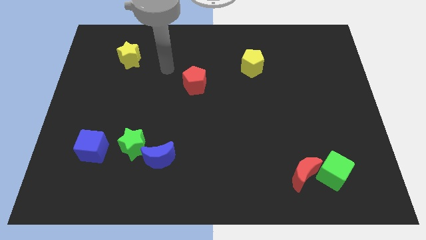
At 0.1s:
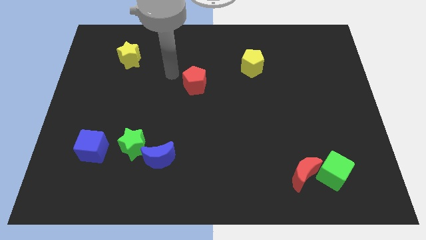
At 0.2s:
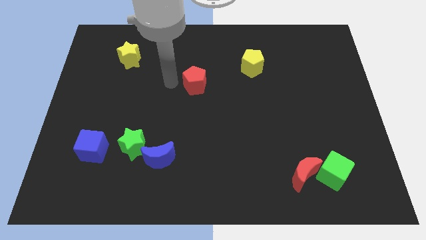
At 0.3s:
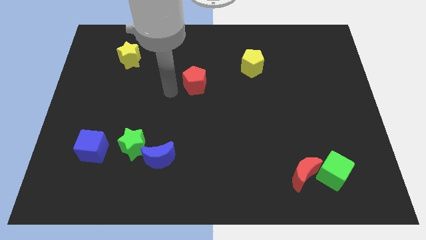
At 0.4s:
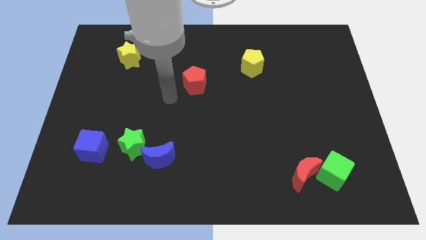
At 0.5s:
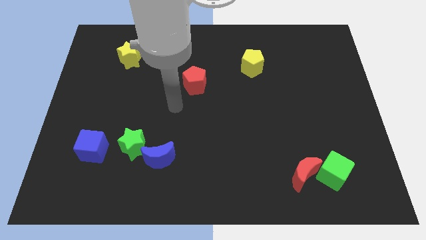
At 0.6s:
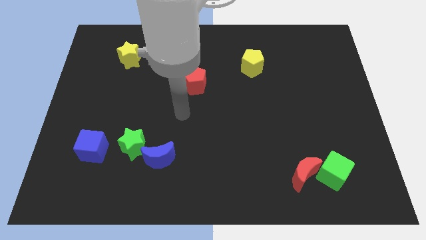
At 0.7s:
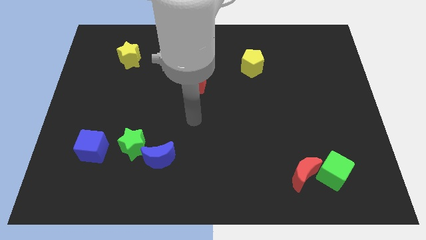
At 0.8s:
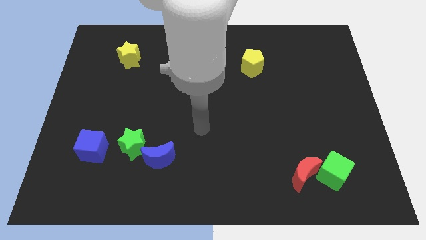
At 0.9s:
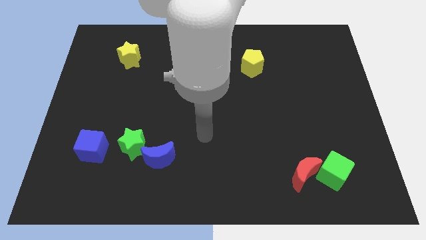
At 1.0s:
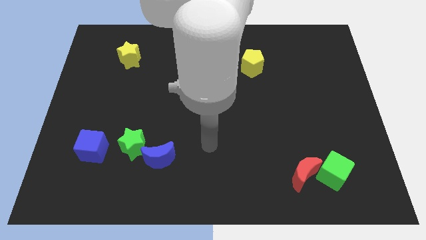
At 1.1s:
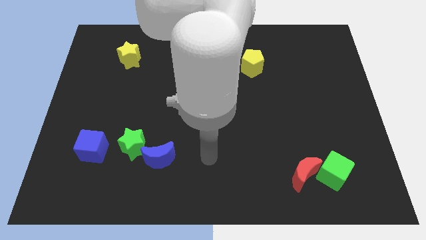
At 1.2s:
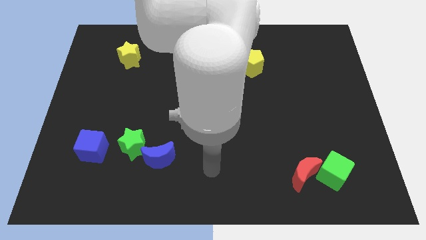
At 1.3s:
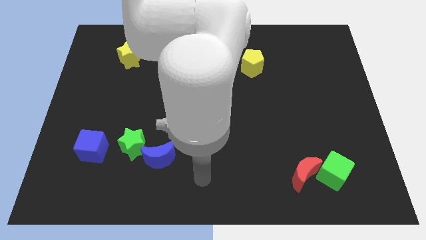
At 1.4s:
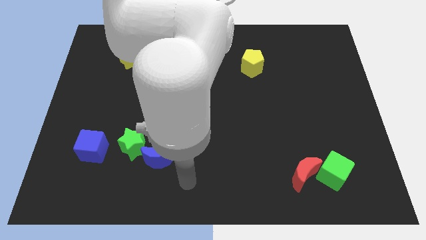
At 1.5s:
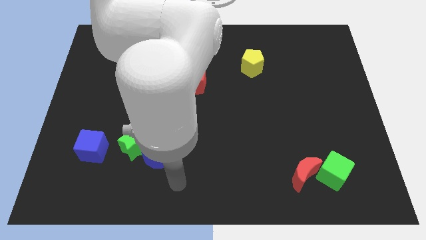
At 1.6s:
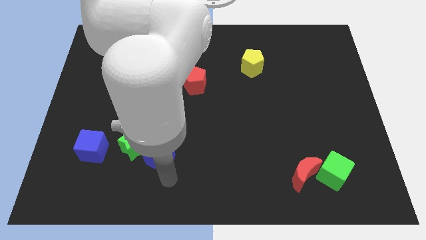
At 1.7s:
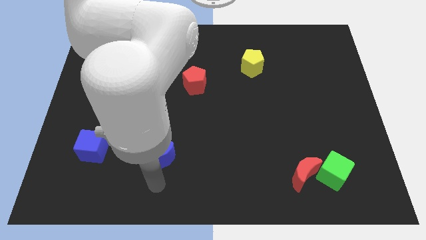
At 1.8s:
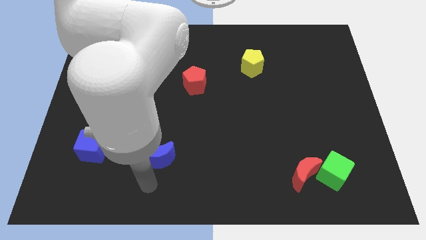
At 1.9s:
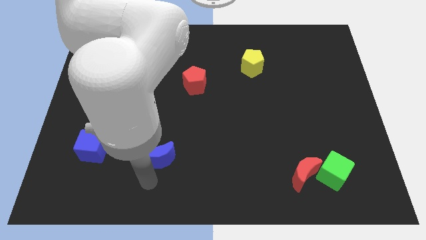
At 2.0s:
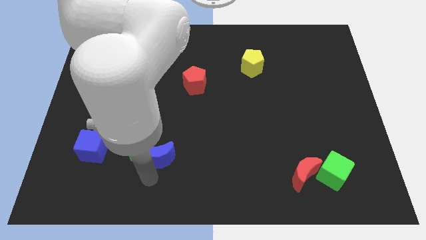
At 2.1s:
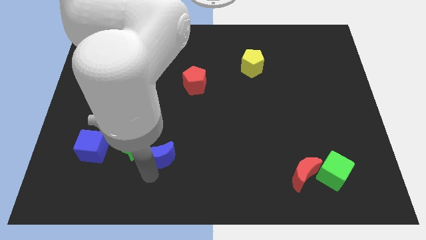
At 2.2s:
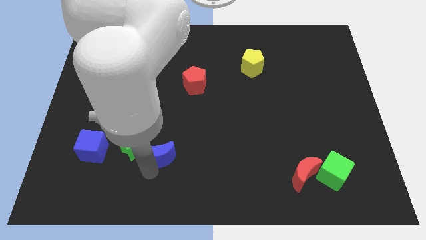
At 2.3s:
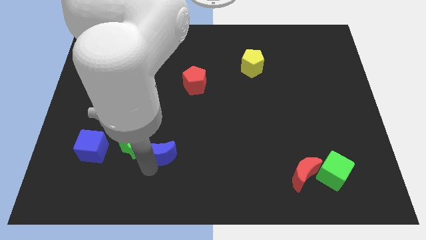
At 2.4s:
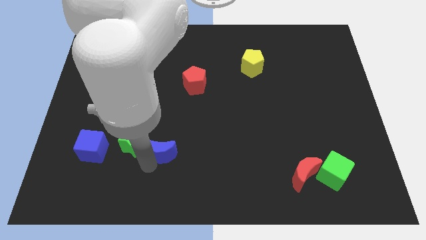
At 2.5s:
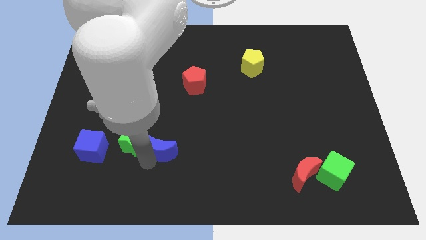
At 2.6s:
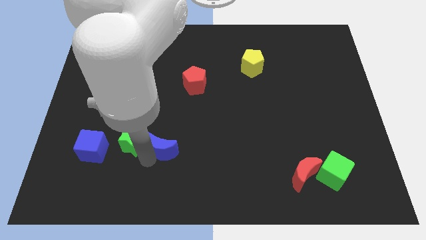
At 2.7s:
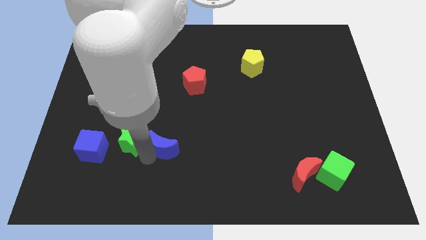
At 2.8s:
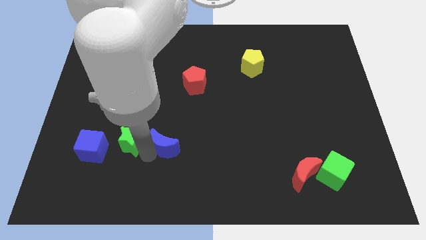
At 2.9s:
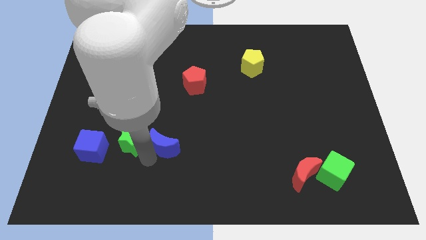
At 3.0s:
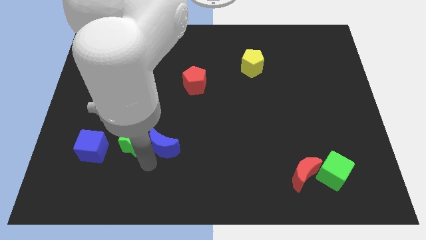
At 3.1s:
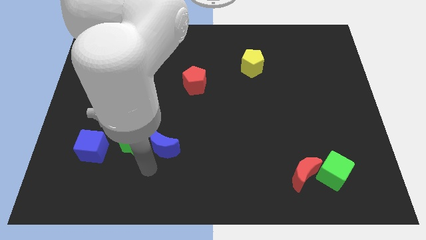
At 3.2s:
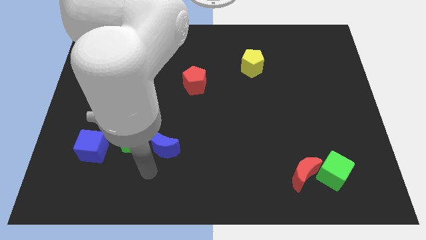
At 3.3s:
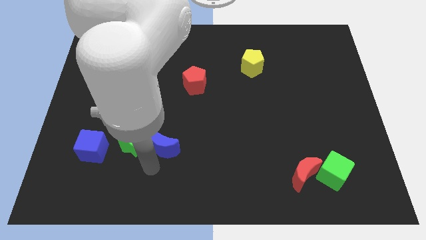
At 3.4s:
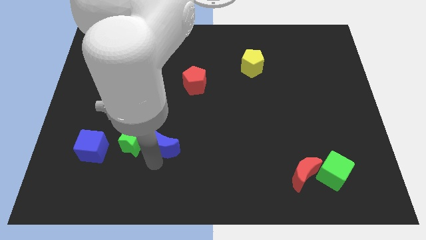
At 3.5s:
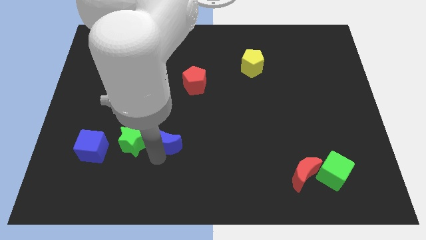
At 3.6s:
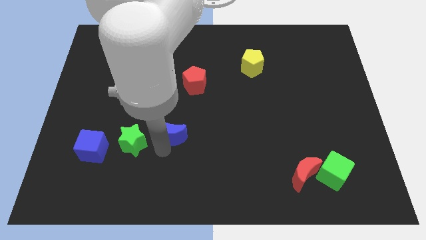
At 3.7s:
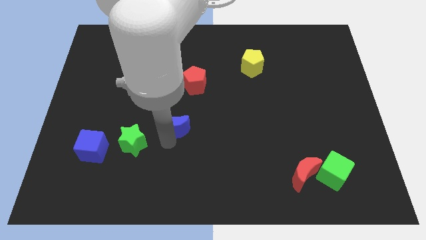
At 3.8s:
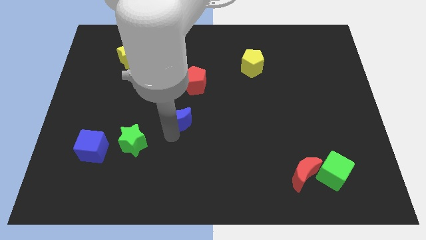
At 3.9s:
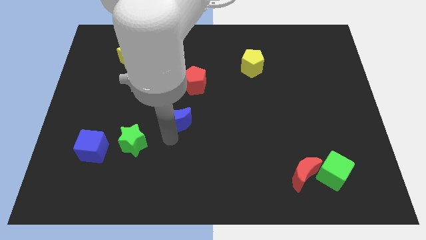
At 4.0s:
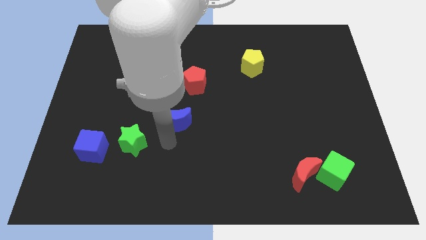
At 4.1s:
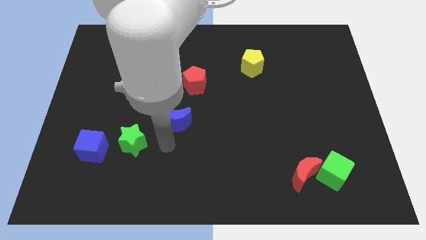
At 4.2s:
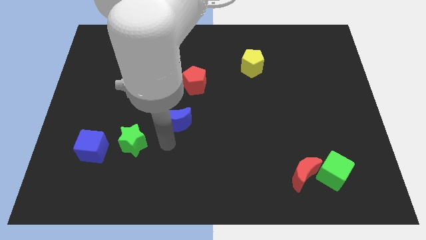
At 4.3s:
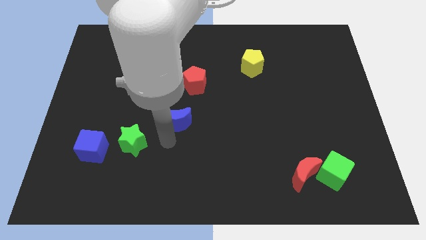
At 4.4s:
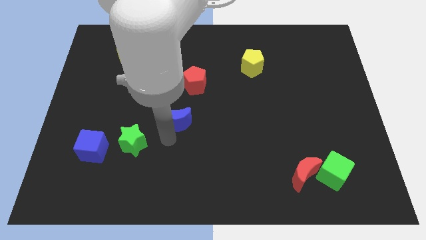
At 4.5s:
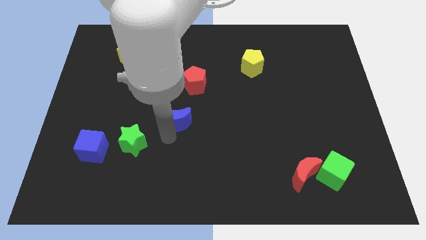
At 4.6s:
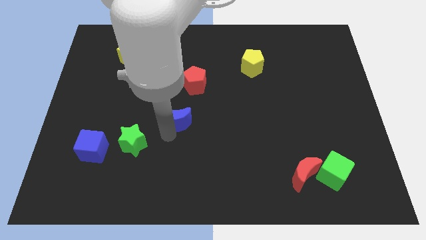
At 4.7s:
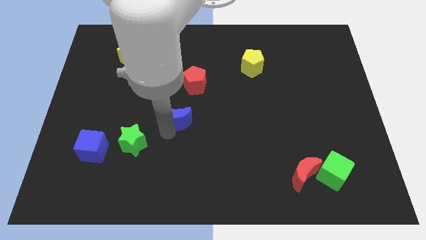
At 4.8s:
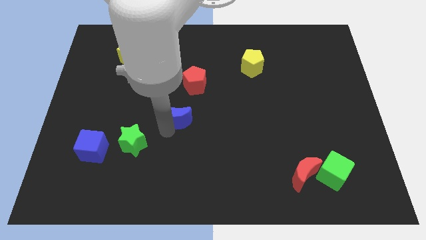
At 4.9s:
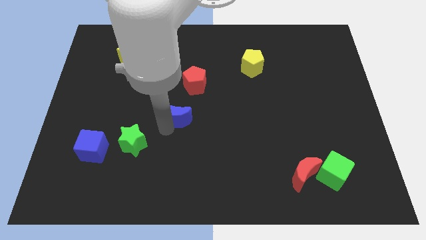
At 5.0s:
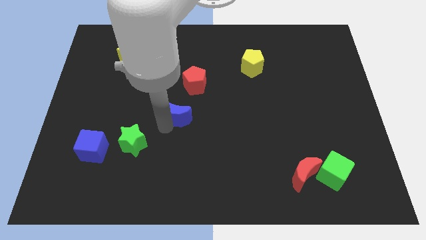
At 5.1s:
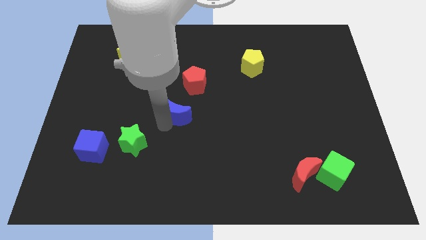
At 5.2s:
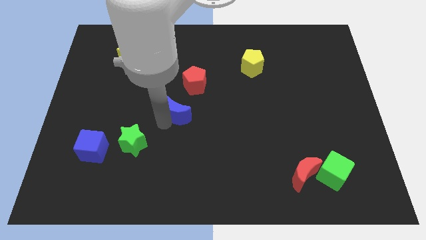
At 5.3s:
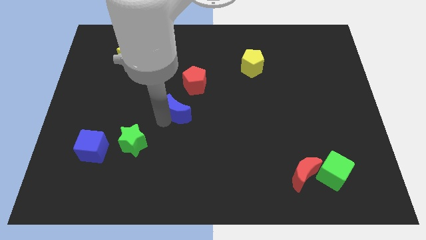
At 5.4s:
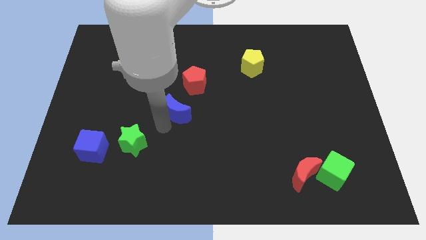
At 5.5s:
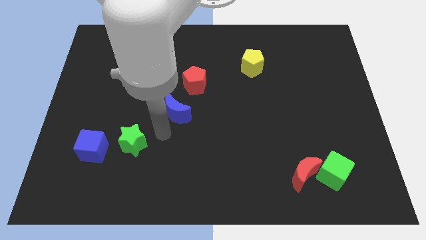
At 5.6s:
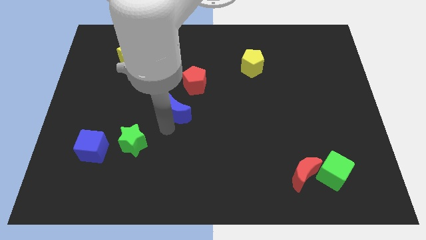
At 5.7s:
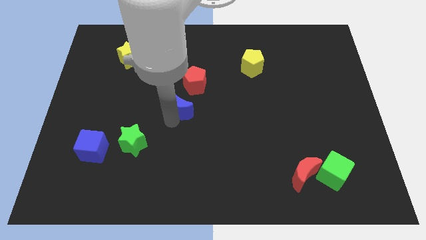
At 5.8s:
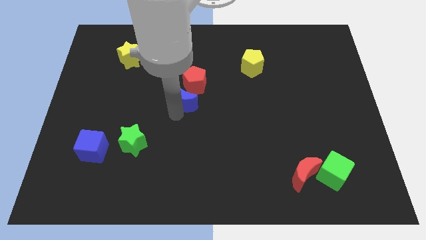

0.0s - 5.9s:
push the blue moon next to the red pentagon

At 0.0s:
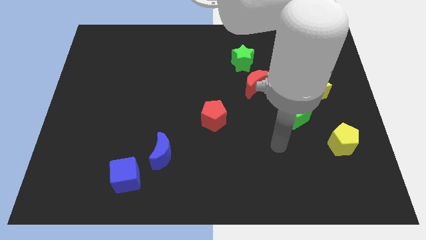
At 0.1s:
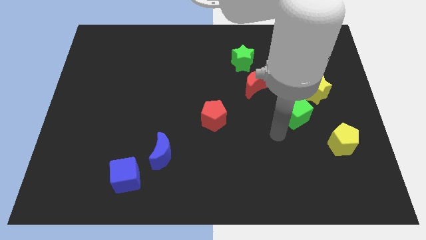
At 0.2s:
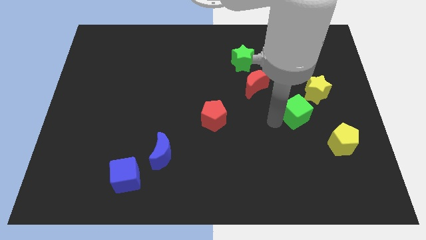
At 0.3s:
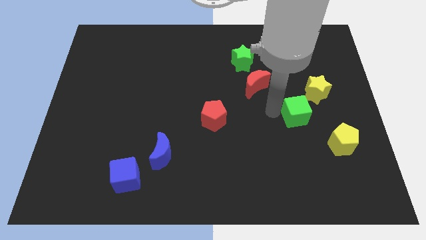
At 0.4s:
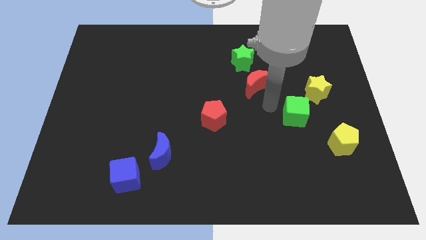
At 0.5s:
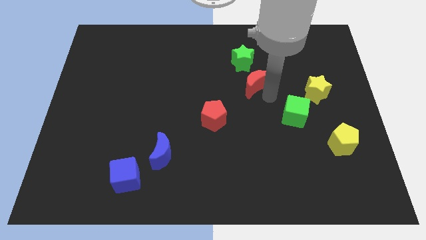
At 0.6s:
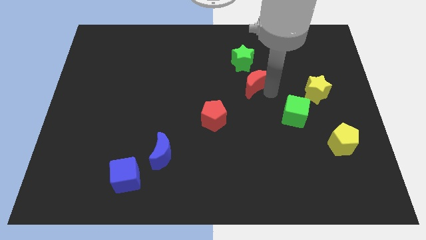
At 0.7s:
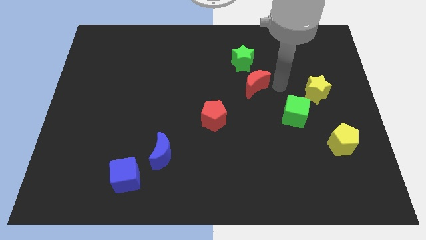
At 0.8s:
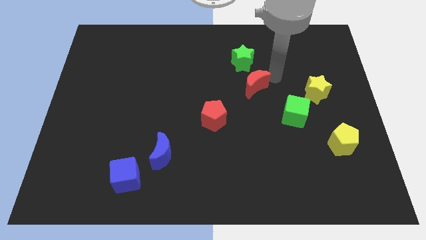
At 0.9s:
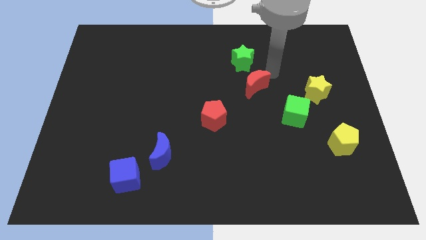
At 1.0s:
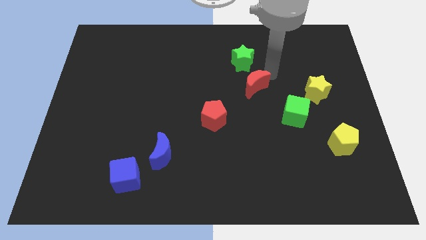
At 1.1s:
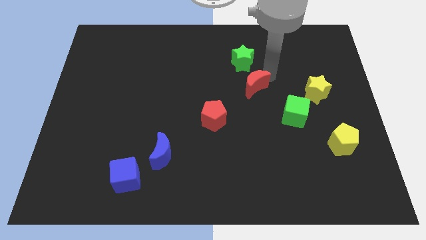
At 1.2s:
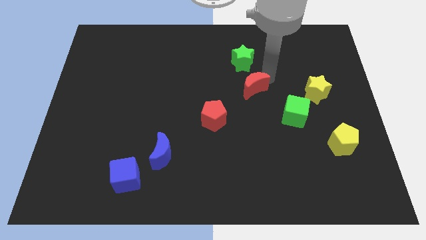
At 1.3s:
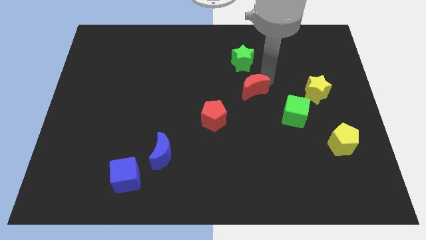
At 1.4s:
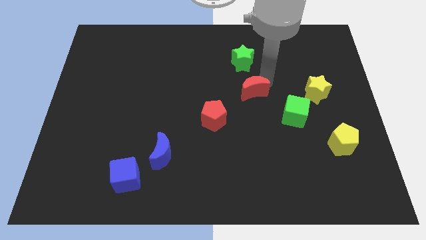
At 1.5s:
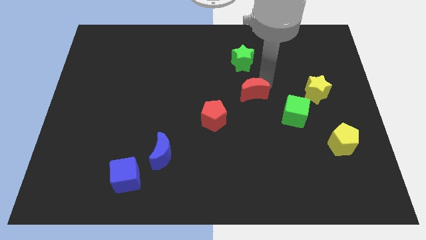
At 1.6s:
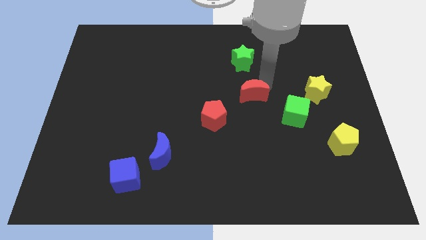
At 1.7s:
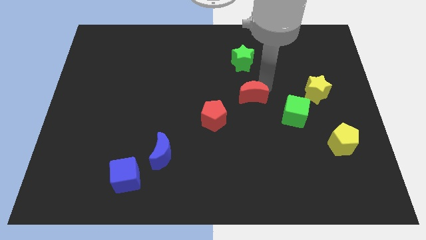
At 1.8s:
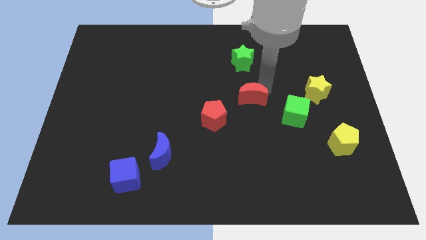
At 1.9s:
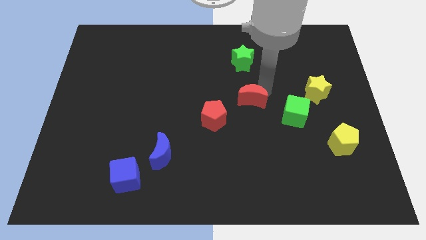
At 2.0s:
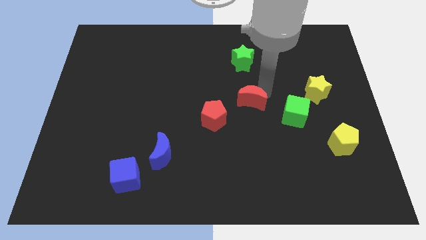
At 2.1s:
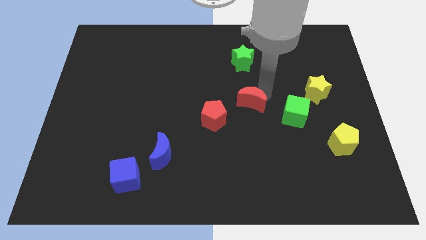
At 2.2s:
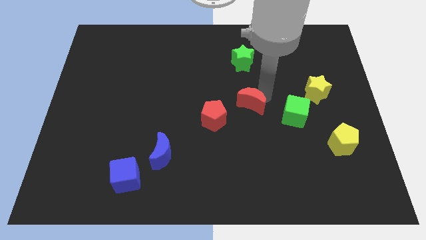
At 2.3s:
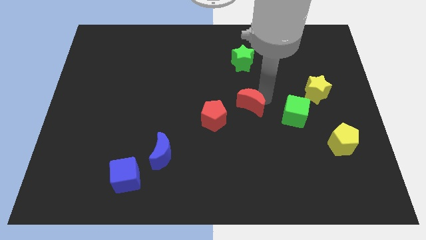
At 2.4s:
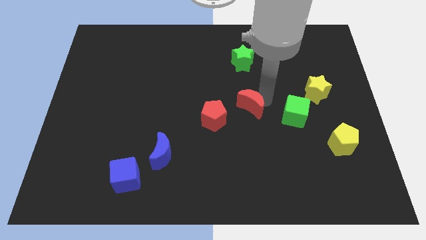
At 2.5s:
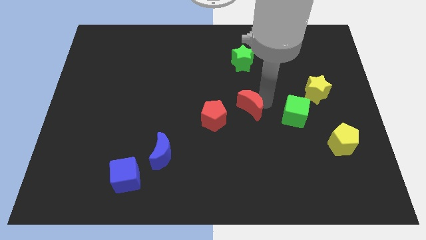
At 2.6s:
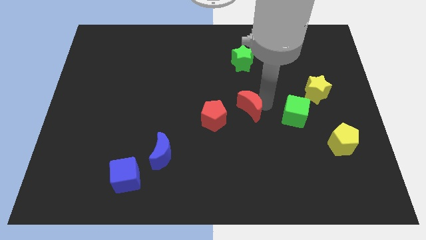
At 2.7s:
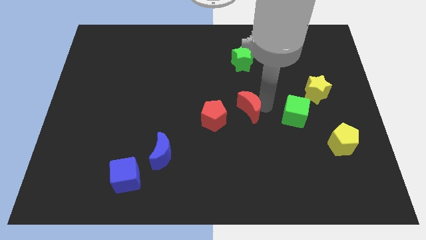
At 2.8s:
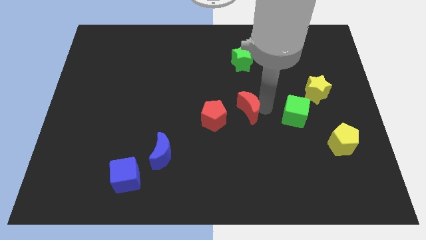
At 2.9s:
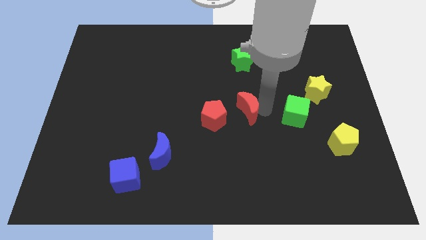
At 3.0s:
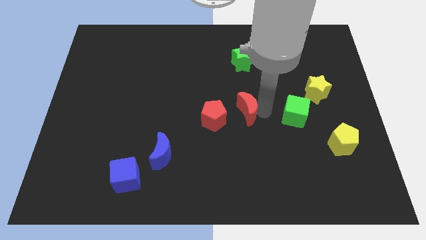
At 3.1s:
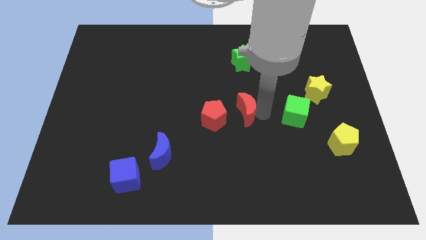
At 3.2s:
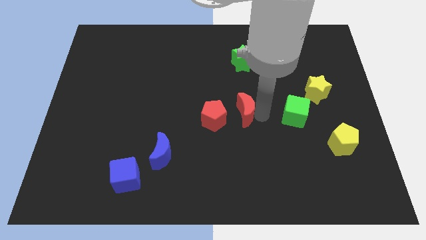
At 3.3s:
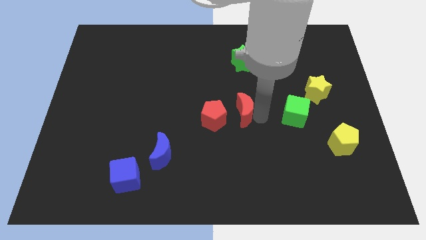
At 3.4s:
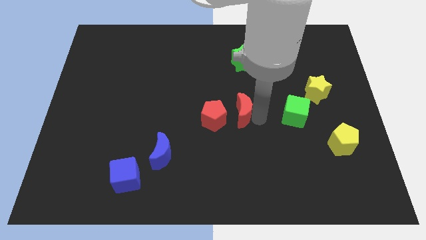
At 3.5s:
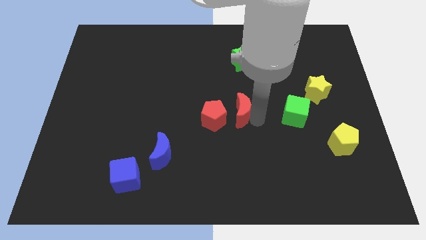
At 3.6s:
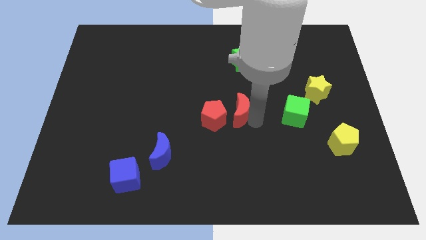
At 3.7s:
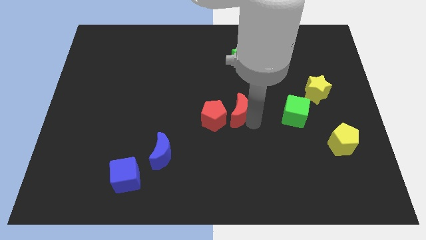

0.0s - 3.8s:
move the red moon towards the red pentagon
